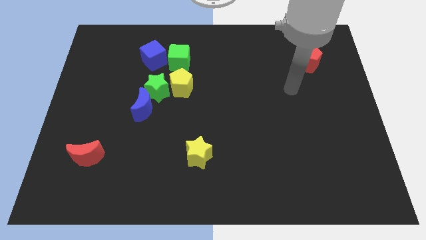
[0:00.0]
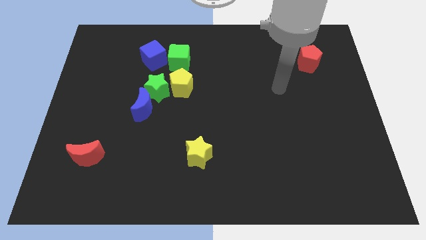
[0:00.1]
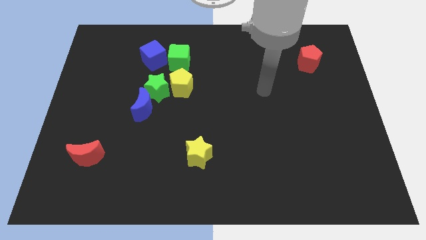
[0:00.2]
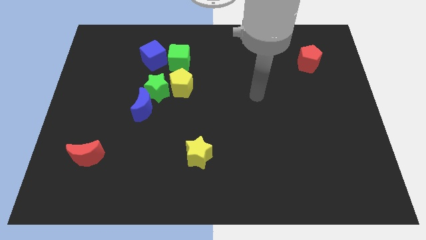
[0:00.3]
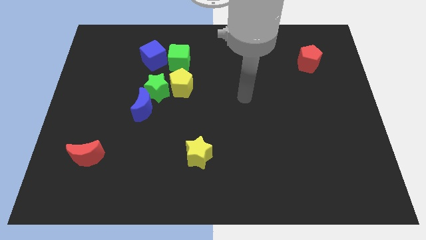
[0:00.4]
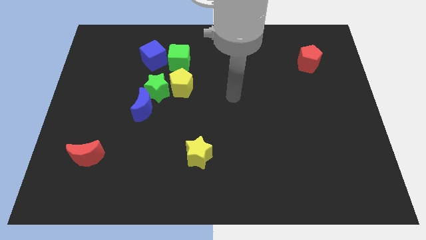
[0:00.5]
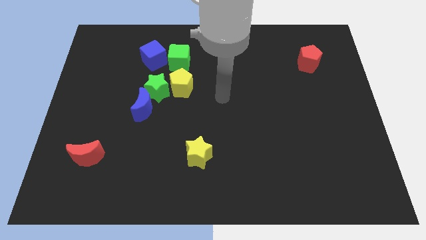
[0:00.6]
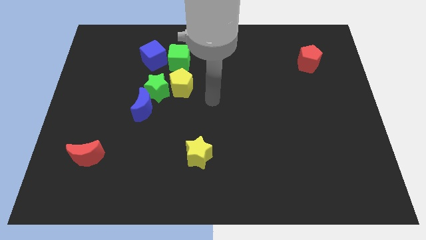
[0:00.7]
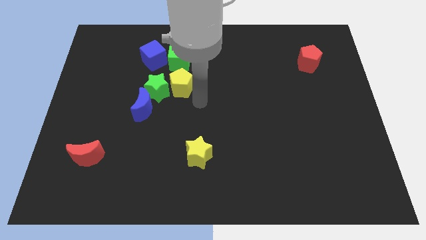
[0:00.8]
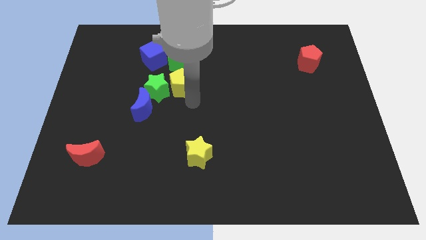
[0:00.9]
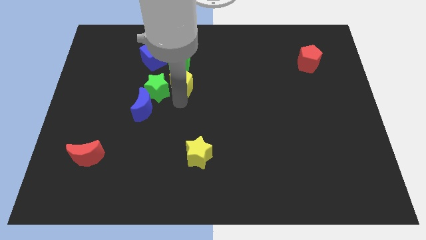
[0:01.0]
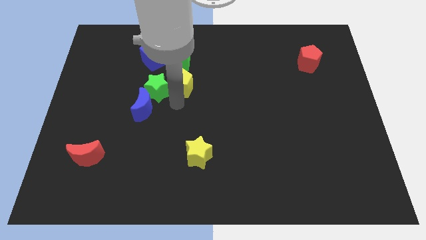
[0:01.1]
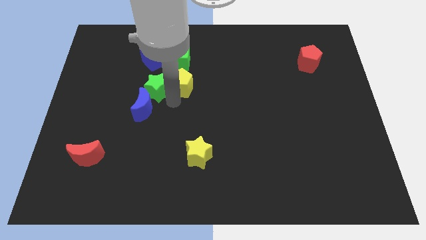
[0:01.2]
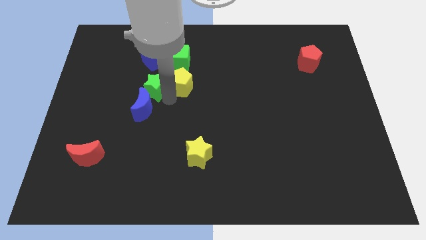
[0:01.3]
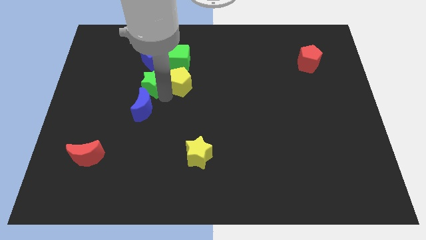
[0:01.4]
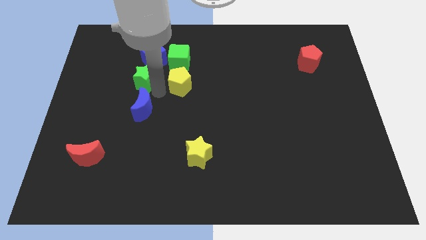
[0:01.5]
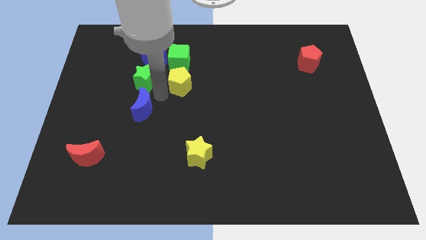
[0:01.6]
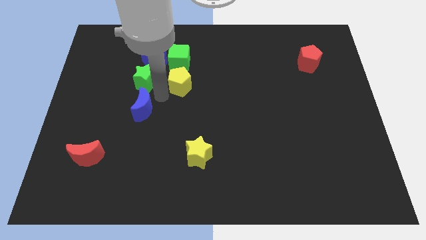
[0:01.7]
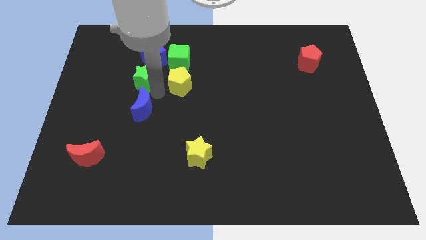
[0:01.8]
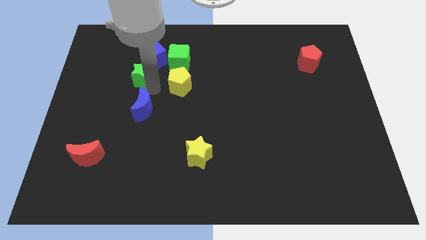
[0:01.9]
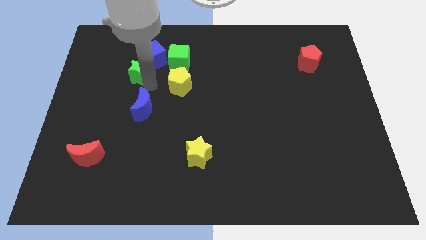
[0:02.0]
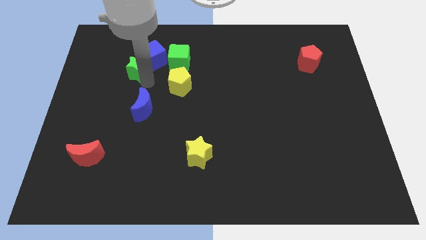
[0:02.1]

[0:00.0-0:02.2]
move the green star away from the yellow pentagon and blue moon

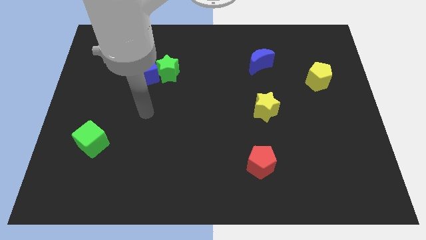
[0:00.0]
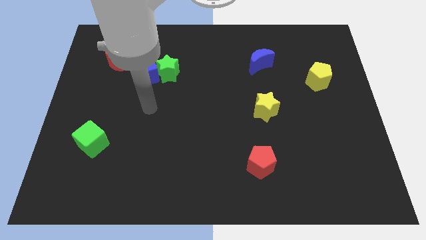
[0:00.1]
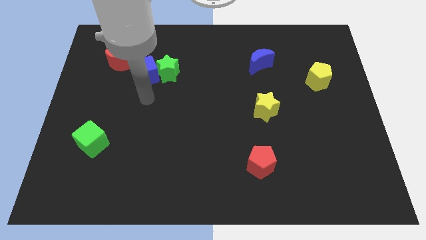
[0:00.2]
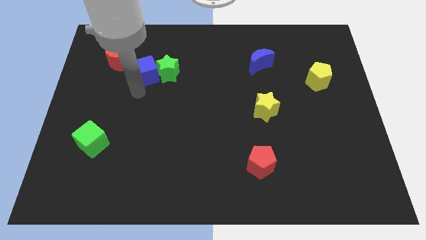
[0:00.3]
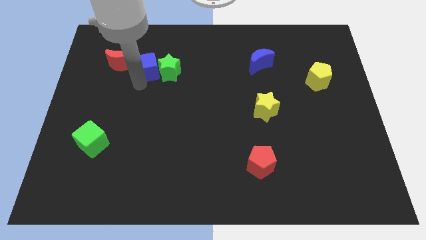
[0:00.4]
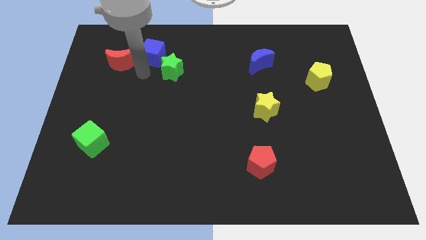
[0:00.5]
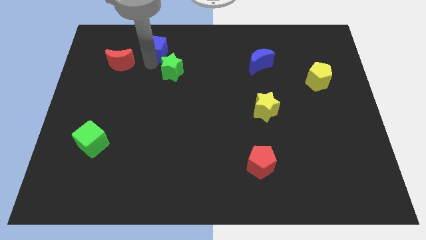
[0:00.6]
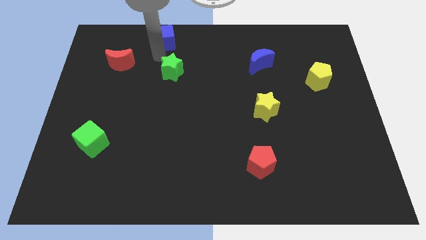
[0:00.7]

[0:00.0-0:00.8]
separate the green star from the blue cube

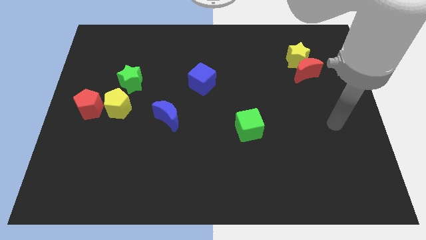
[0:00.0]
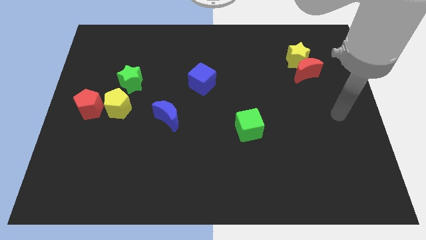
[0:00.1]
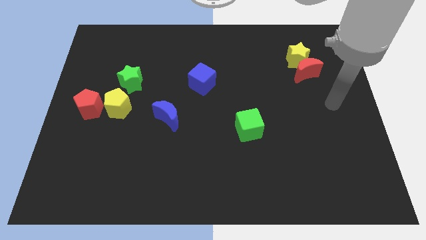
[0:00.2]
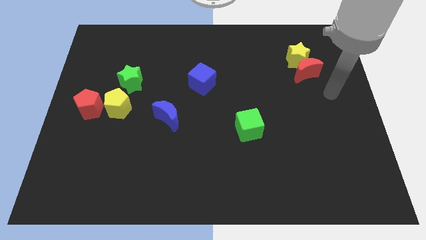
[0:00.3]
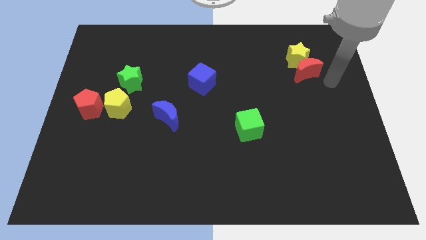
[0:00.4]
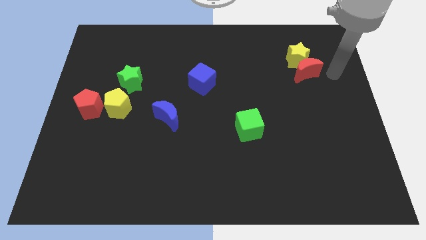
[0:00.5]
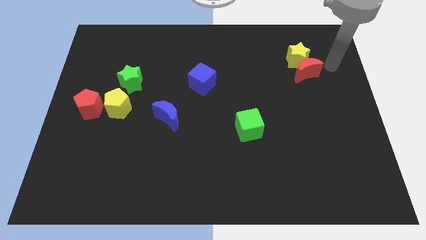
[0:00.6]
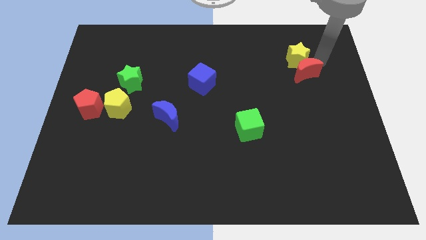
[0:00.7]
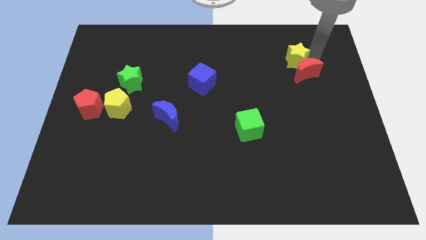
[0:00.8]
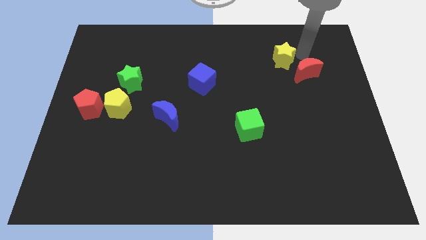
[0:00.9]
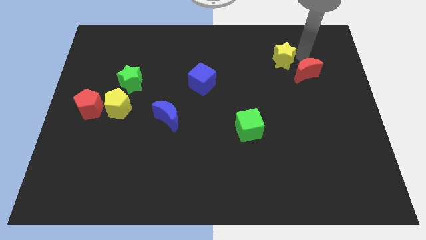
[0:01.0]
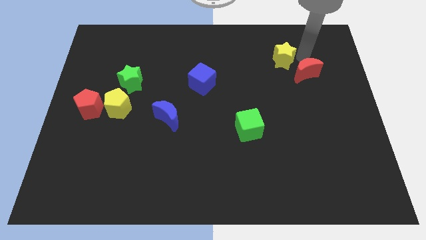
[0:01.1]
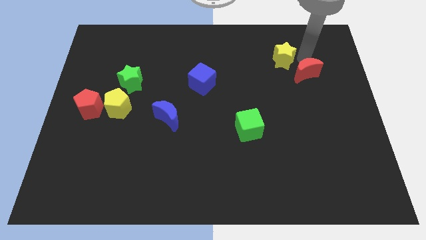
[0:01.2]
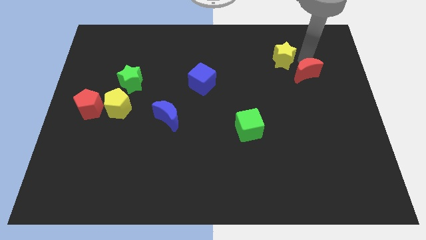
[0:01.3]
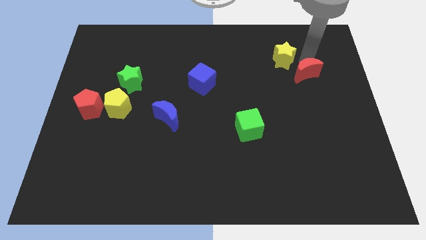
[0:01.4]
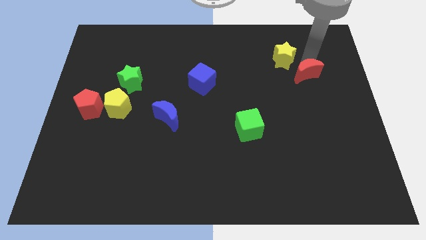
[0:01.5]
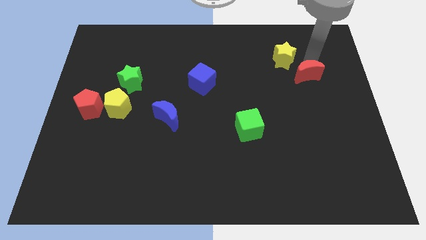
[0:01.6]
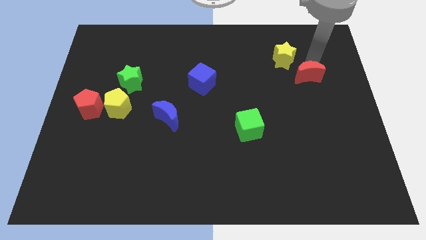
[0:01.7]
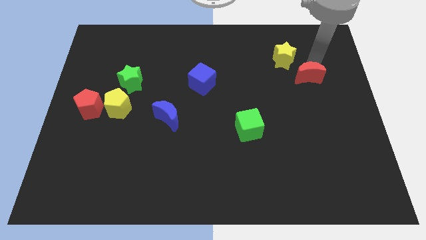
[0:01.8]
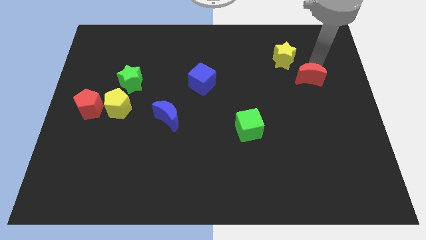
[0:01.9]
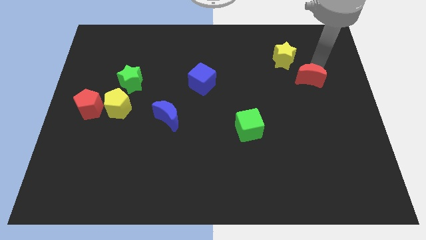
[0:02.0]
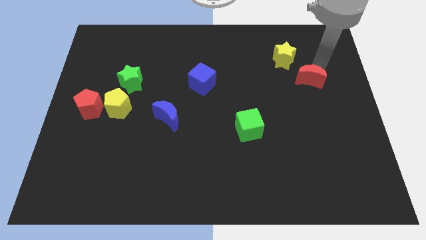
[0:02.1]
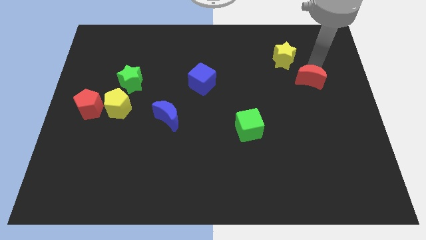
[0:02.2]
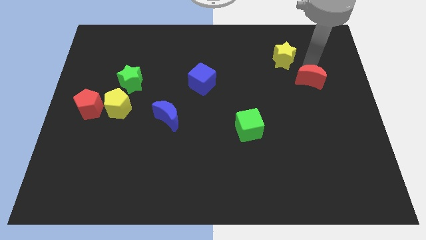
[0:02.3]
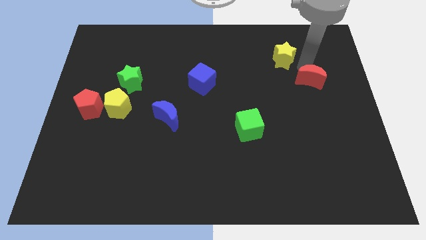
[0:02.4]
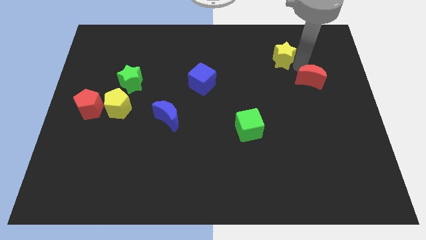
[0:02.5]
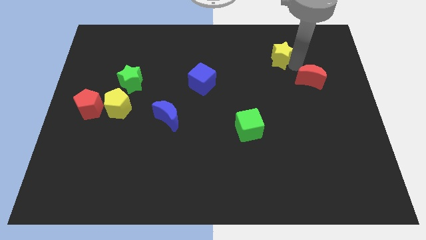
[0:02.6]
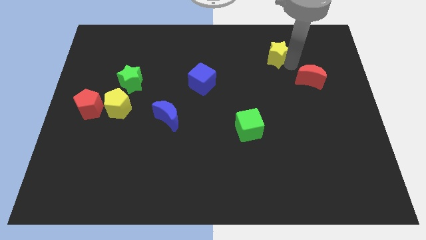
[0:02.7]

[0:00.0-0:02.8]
separate the red moon from the yellow star

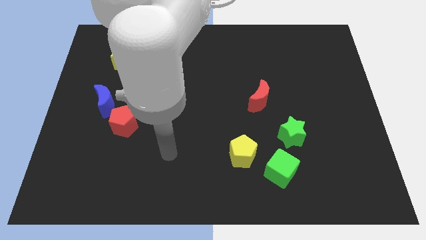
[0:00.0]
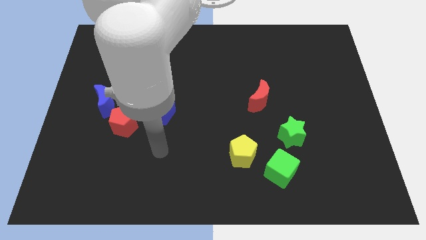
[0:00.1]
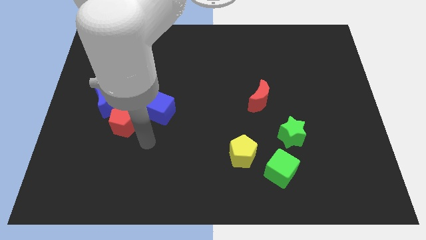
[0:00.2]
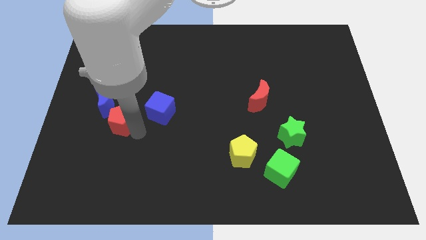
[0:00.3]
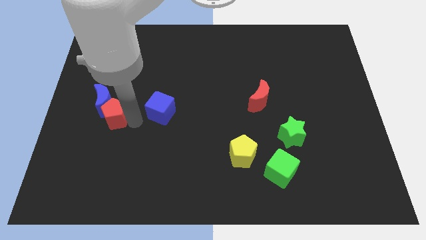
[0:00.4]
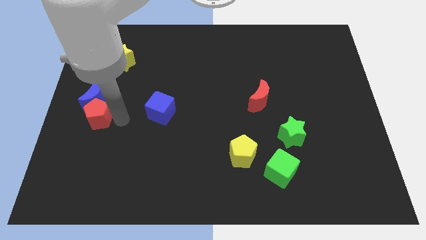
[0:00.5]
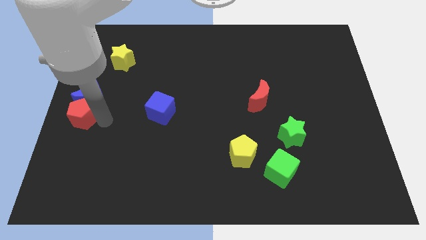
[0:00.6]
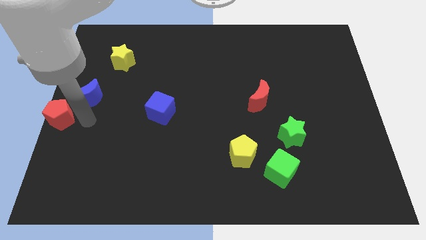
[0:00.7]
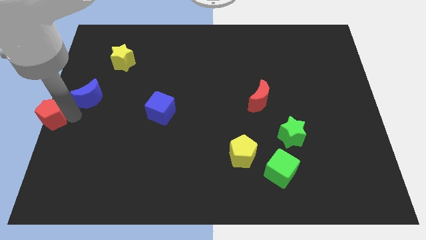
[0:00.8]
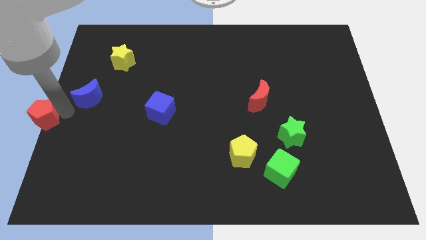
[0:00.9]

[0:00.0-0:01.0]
move the blue moon away from the red pentagon

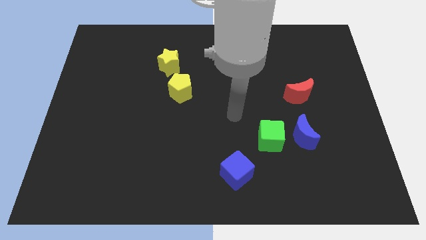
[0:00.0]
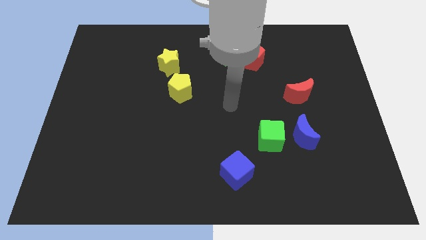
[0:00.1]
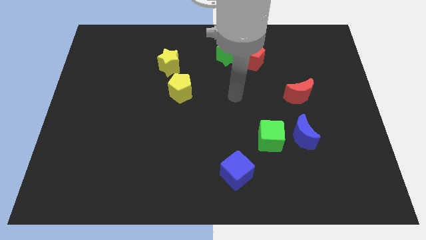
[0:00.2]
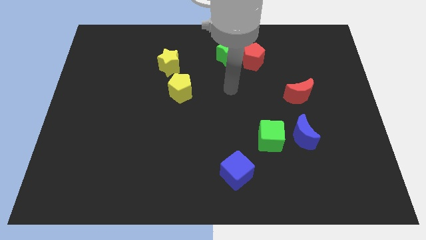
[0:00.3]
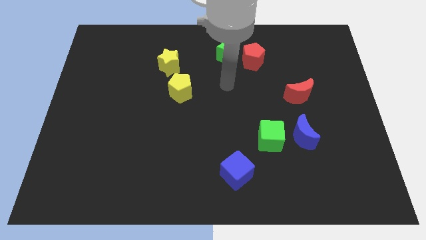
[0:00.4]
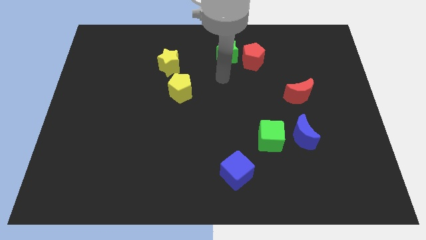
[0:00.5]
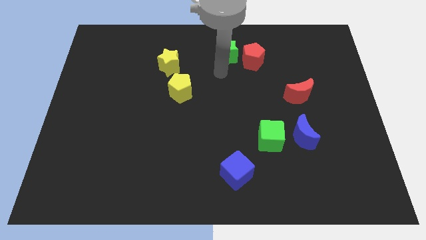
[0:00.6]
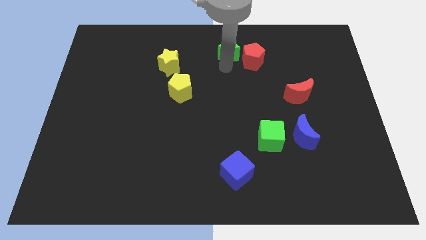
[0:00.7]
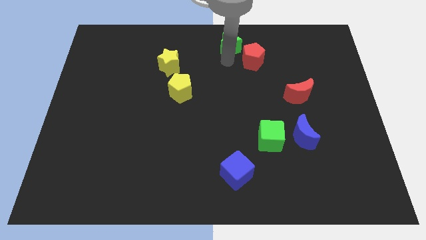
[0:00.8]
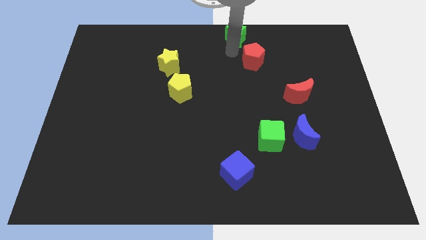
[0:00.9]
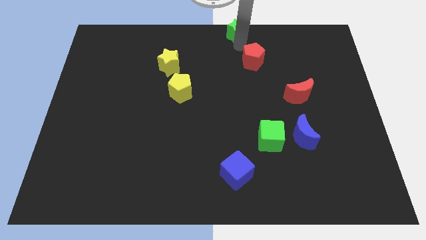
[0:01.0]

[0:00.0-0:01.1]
separate the red pentagon from the green star

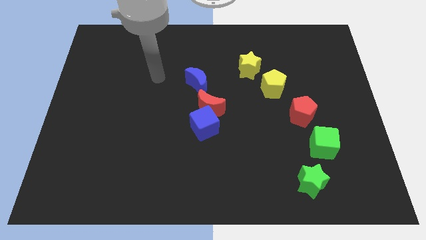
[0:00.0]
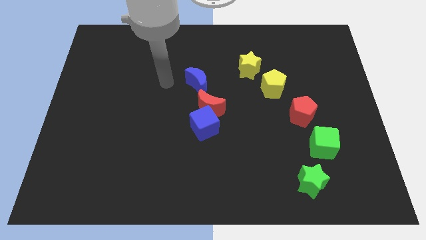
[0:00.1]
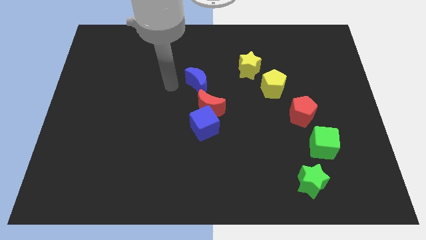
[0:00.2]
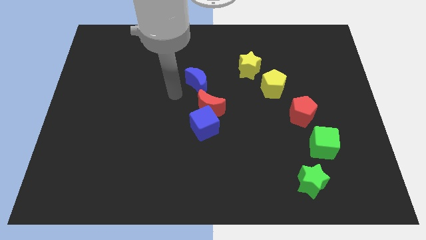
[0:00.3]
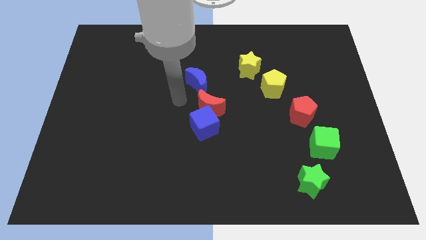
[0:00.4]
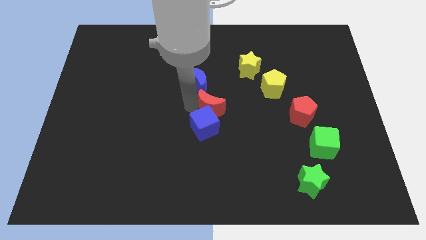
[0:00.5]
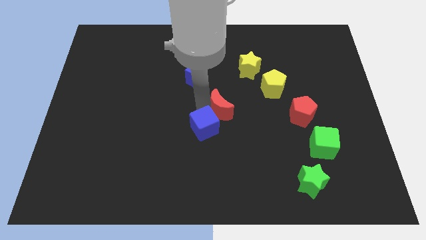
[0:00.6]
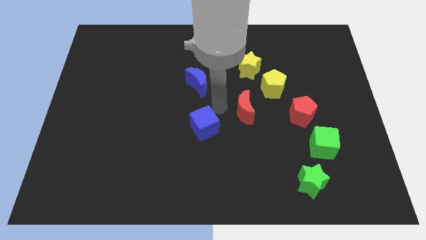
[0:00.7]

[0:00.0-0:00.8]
separate the blue cube from the red moon

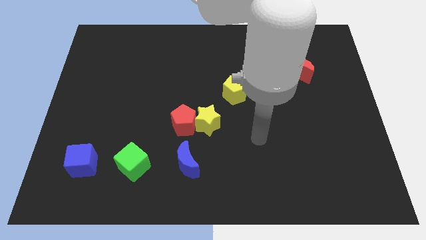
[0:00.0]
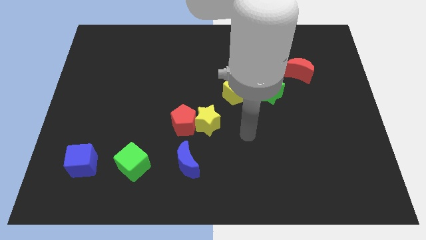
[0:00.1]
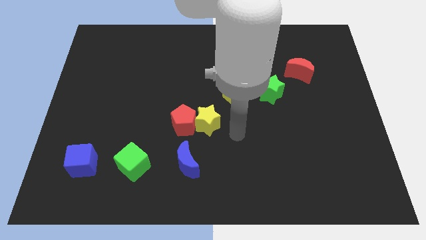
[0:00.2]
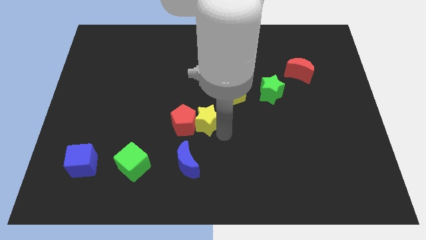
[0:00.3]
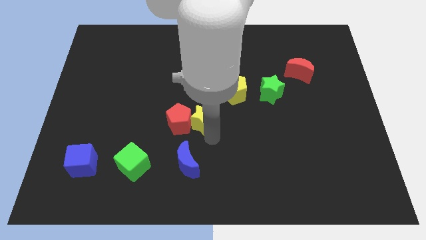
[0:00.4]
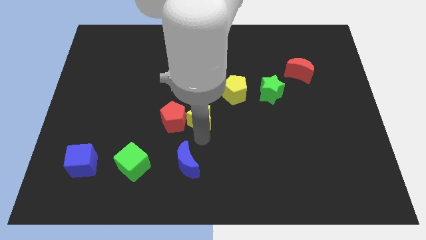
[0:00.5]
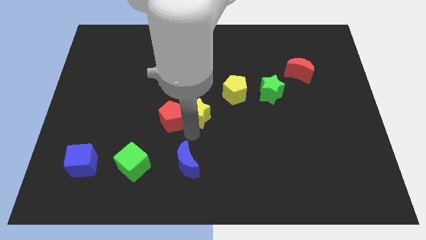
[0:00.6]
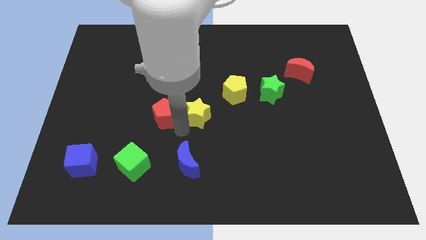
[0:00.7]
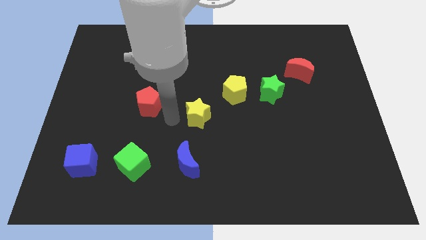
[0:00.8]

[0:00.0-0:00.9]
pull the yellow star apart from the red pentagon
